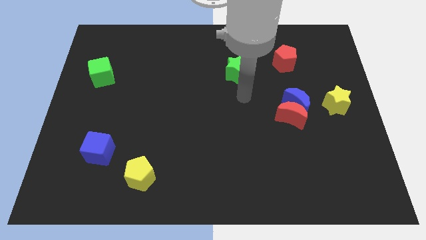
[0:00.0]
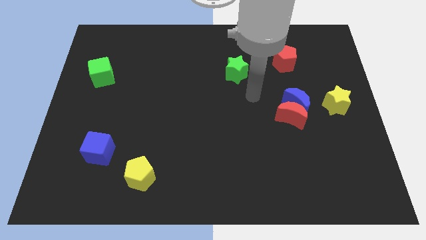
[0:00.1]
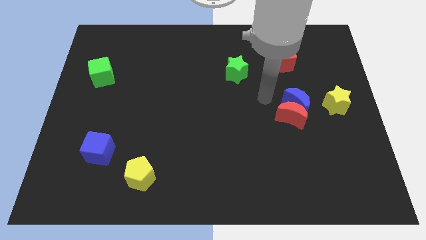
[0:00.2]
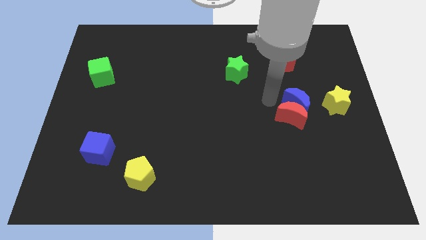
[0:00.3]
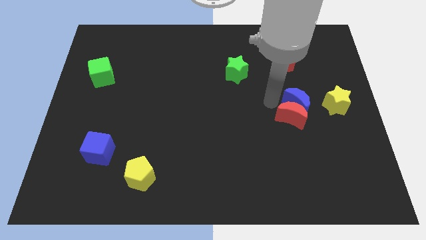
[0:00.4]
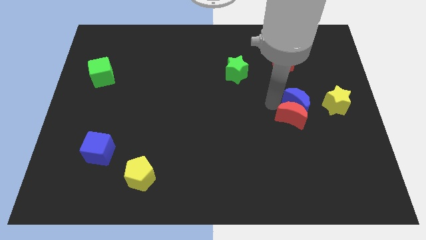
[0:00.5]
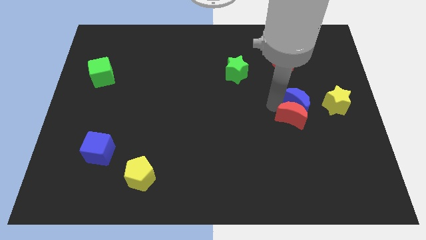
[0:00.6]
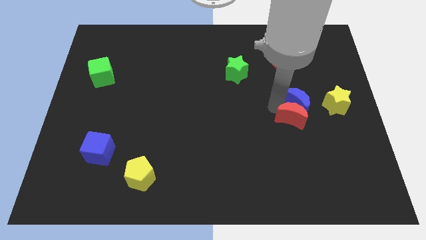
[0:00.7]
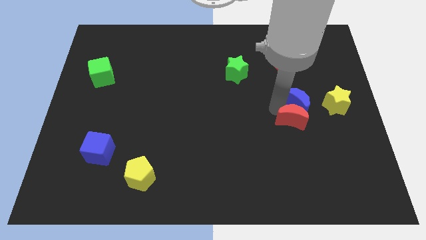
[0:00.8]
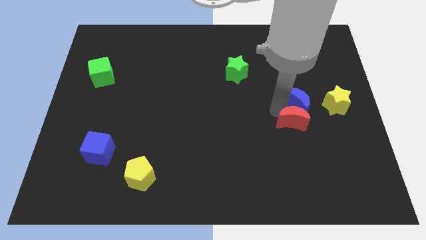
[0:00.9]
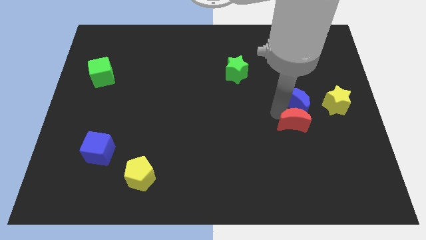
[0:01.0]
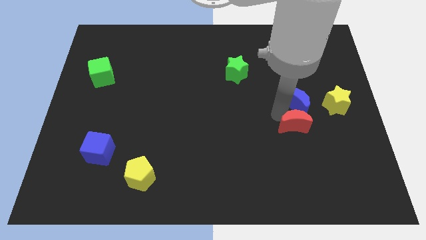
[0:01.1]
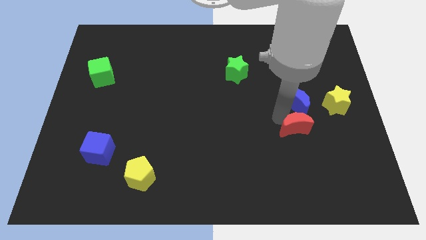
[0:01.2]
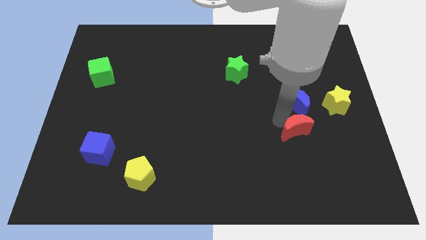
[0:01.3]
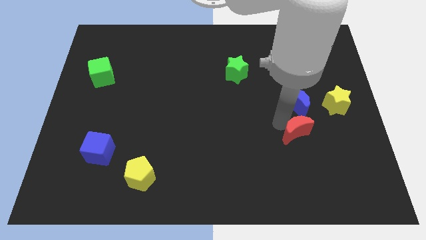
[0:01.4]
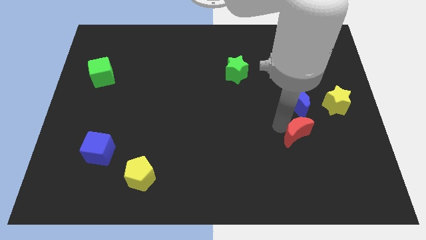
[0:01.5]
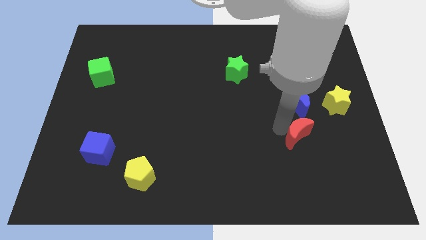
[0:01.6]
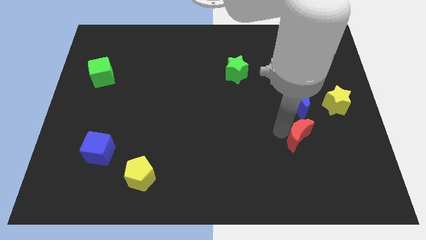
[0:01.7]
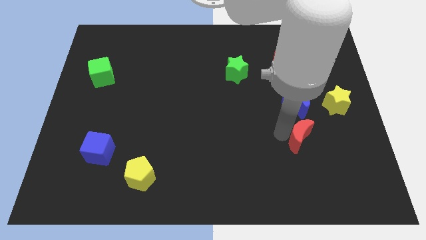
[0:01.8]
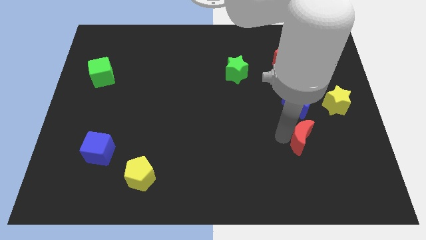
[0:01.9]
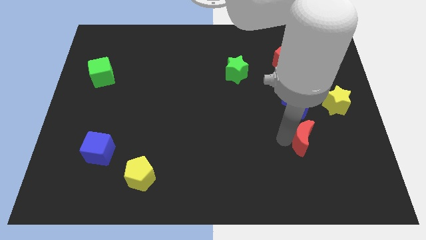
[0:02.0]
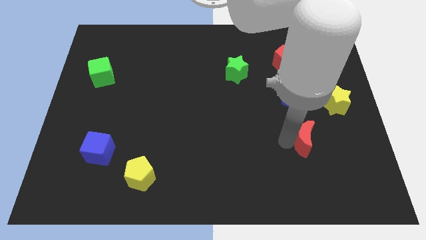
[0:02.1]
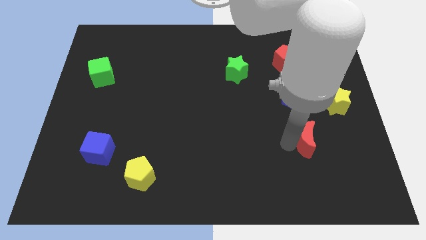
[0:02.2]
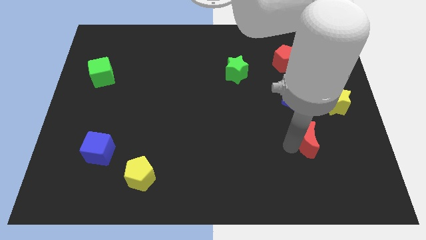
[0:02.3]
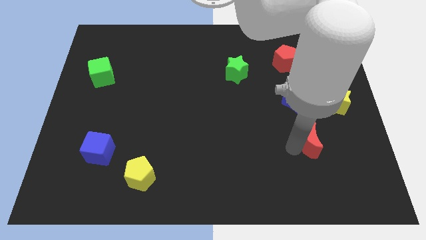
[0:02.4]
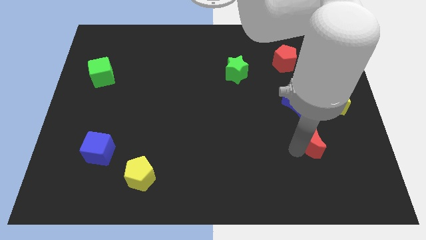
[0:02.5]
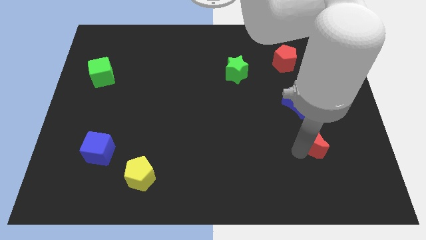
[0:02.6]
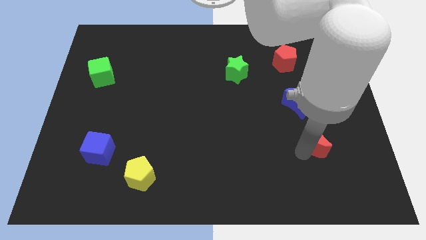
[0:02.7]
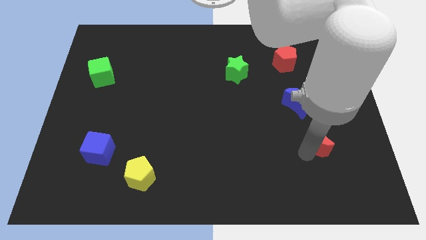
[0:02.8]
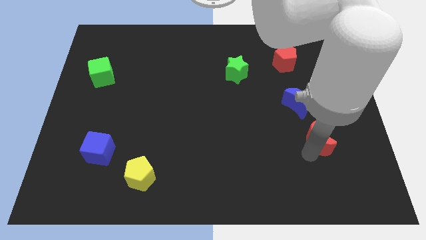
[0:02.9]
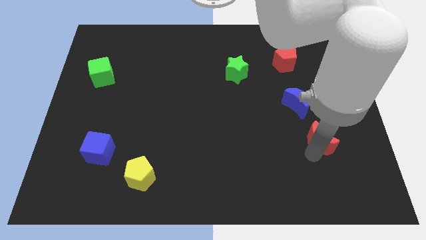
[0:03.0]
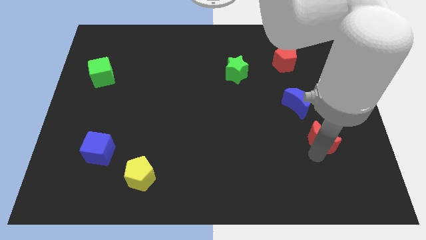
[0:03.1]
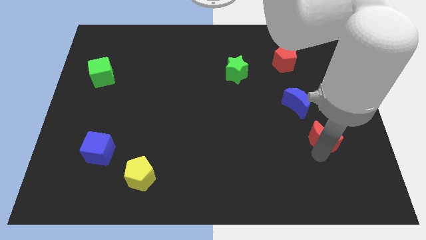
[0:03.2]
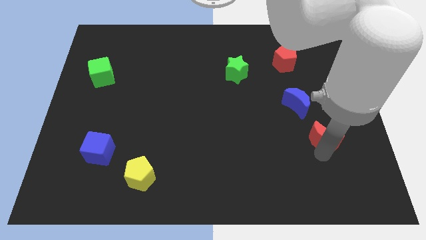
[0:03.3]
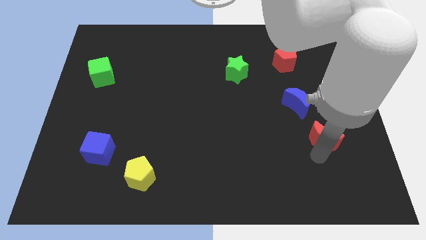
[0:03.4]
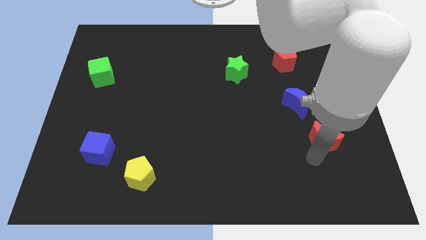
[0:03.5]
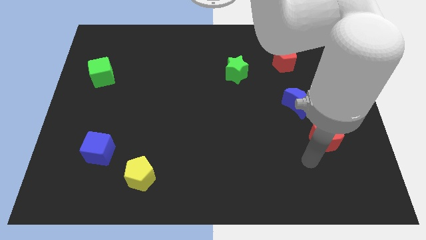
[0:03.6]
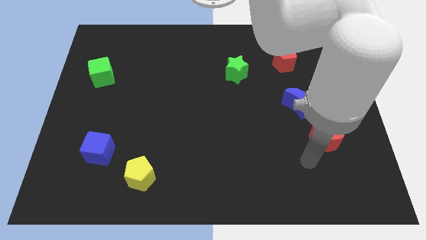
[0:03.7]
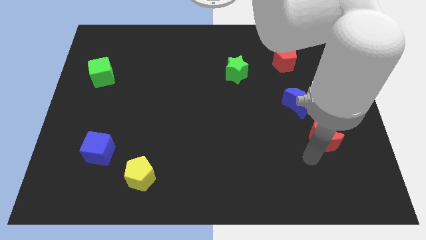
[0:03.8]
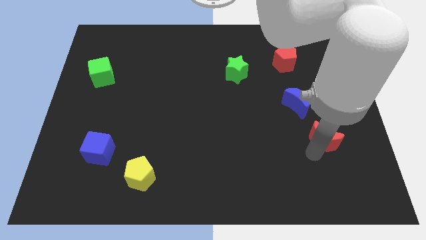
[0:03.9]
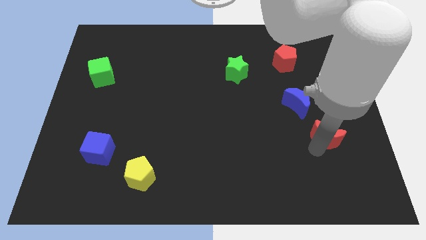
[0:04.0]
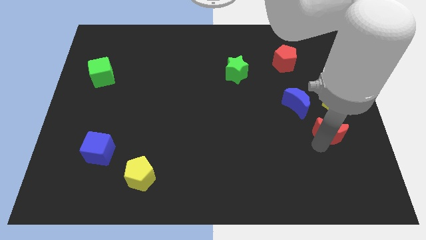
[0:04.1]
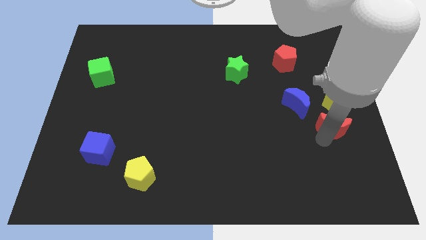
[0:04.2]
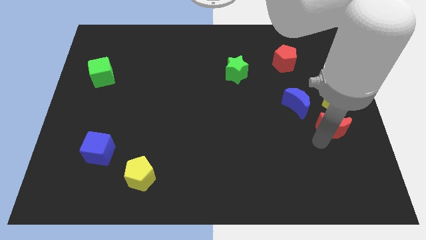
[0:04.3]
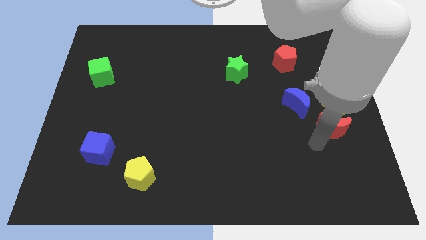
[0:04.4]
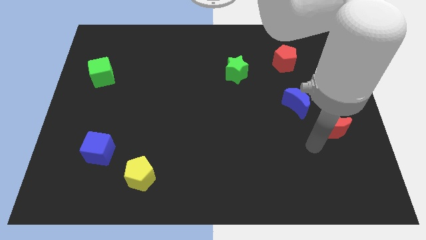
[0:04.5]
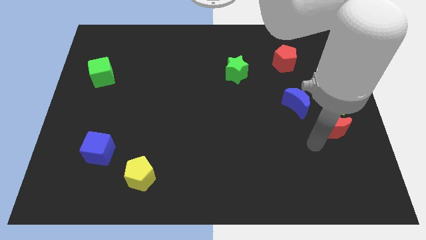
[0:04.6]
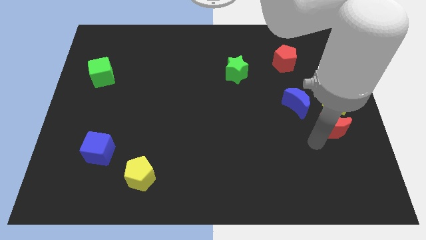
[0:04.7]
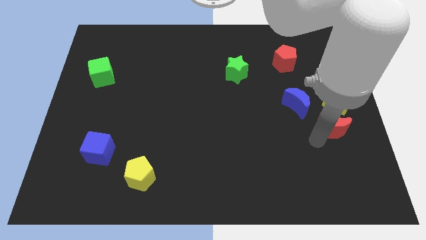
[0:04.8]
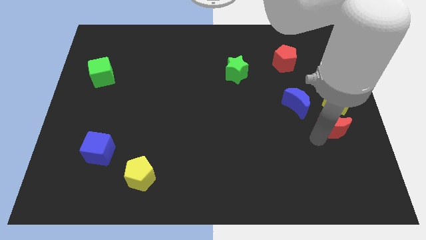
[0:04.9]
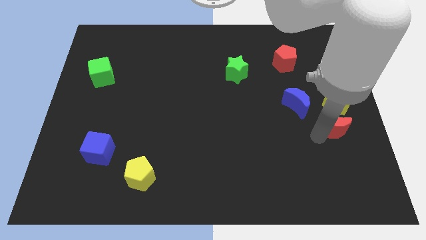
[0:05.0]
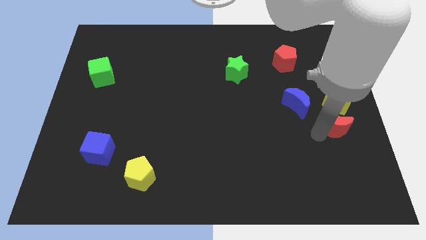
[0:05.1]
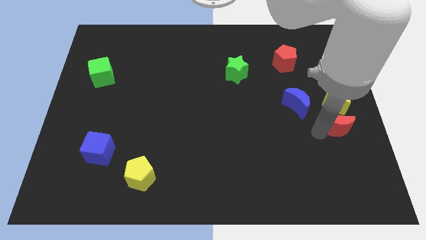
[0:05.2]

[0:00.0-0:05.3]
put the red moon to the center right
